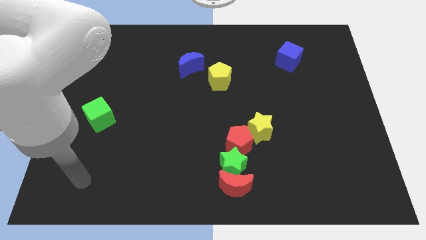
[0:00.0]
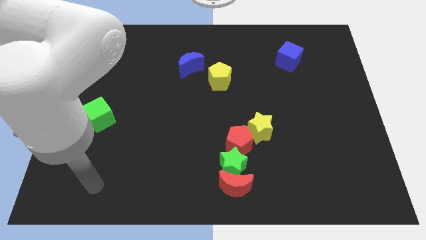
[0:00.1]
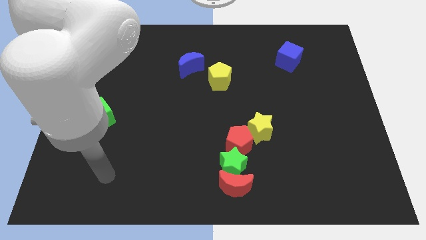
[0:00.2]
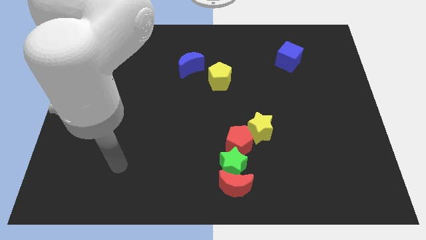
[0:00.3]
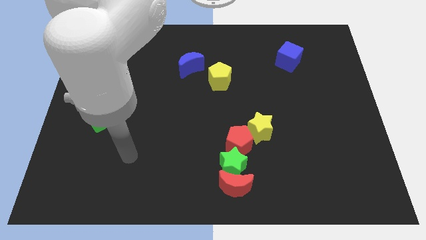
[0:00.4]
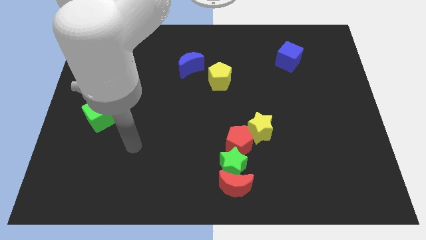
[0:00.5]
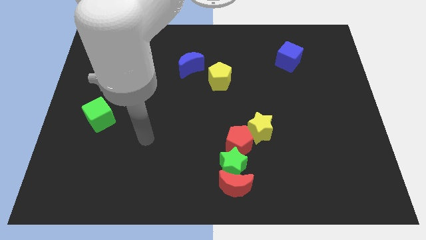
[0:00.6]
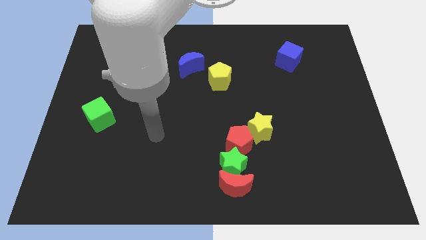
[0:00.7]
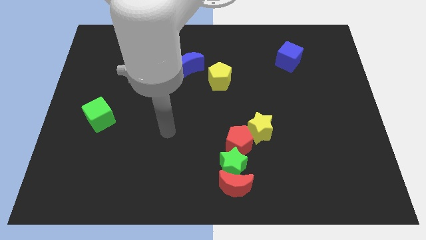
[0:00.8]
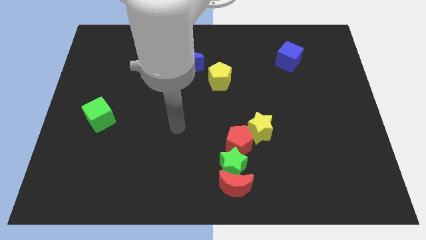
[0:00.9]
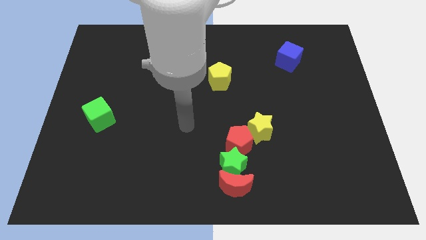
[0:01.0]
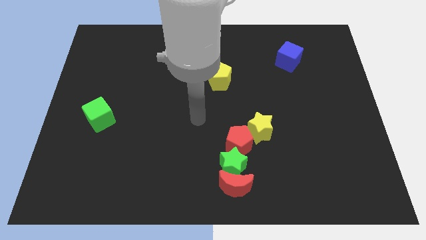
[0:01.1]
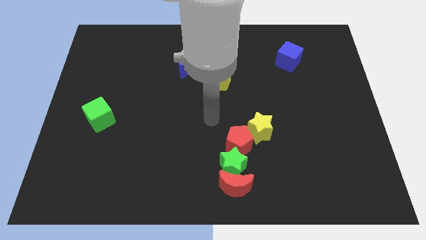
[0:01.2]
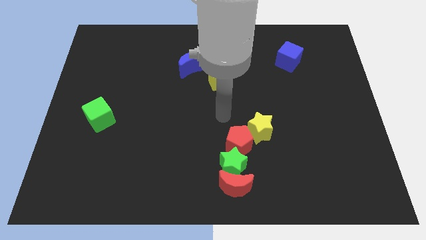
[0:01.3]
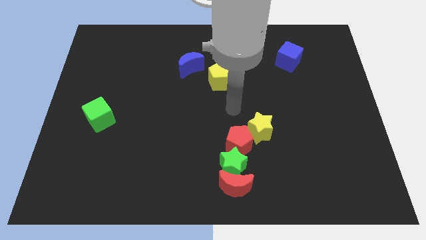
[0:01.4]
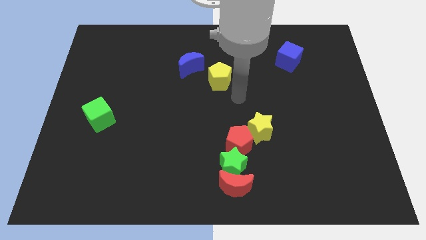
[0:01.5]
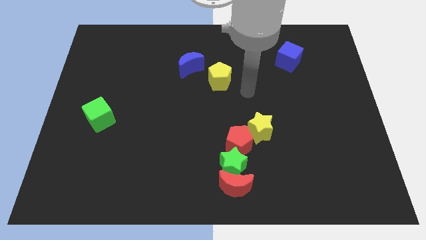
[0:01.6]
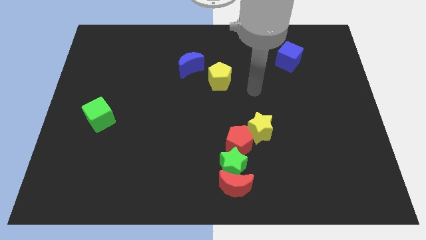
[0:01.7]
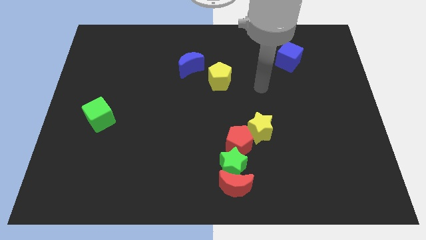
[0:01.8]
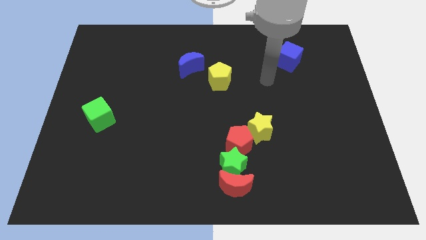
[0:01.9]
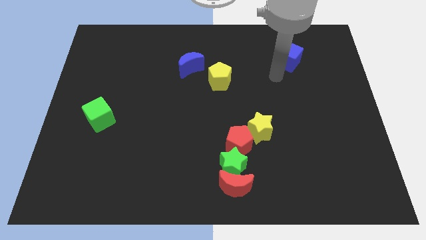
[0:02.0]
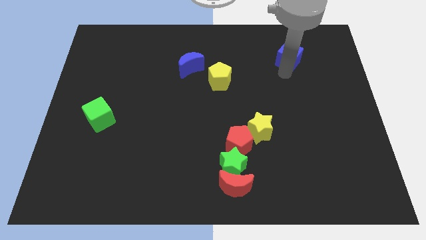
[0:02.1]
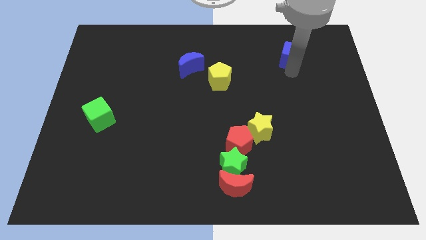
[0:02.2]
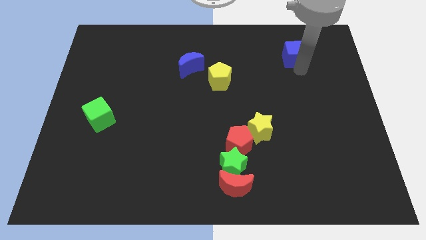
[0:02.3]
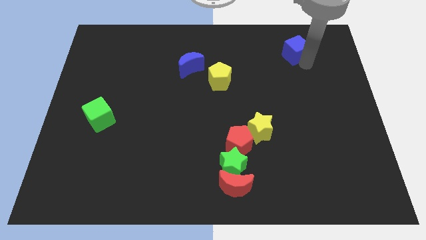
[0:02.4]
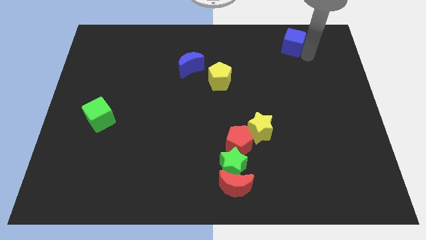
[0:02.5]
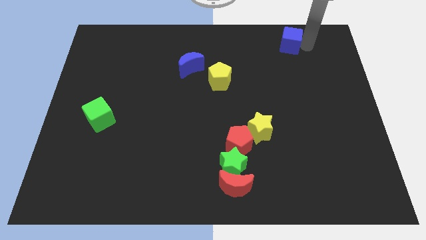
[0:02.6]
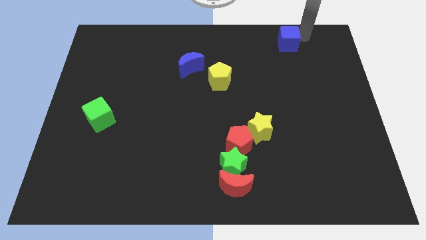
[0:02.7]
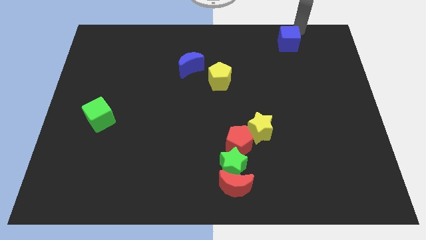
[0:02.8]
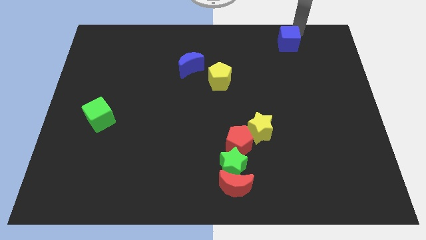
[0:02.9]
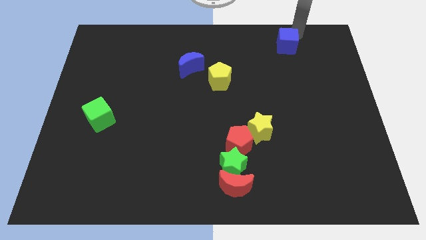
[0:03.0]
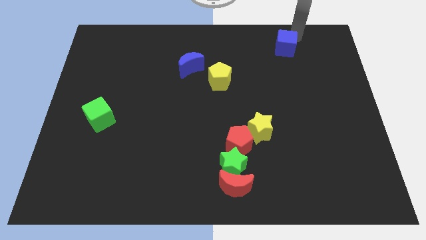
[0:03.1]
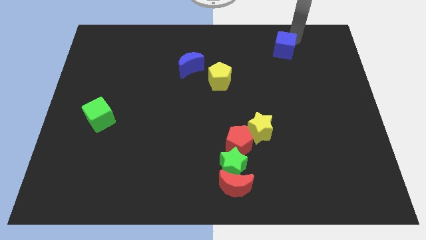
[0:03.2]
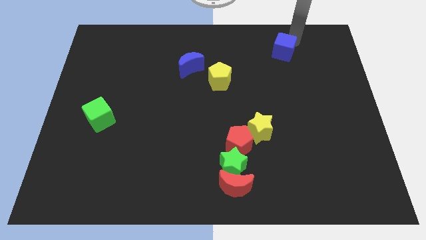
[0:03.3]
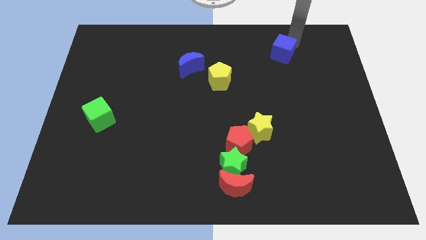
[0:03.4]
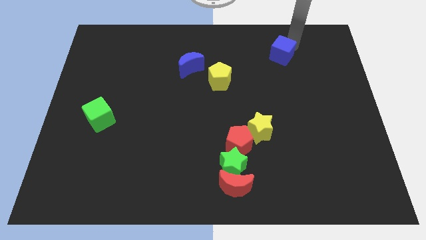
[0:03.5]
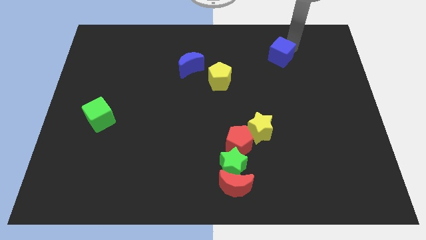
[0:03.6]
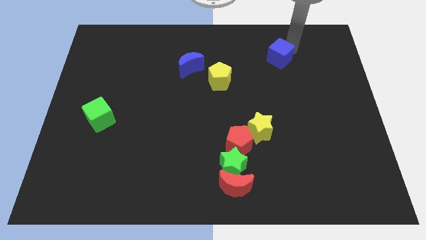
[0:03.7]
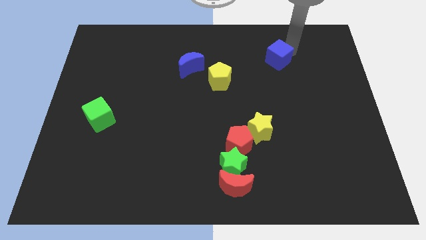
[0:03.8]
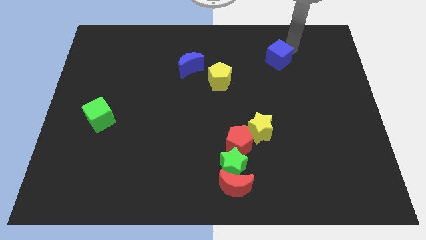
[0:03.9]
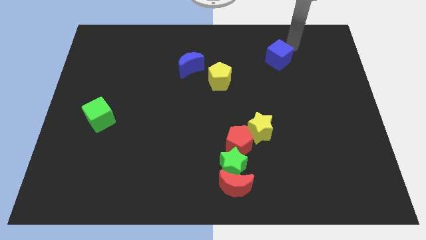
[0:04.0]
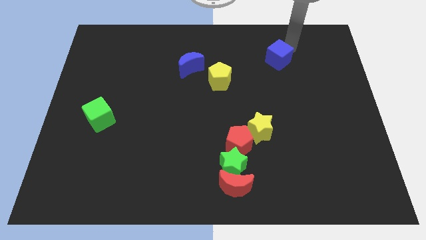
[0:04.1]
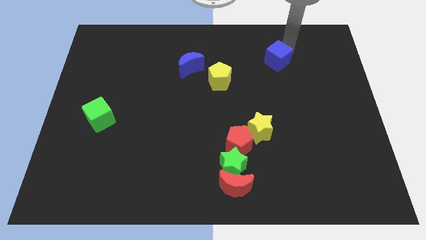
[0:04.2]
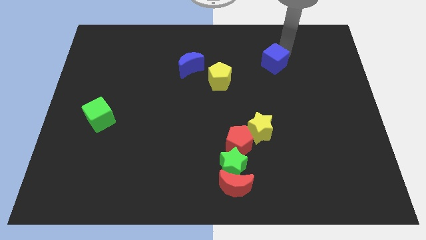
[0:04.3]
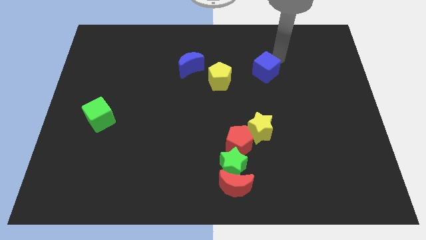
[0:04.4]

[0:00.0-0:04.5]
slide the blue cube down and left diagonally a little

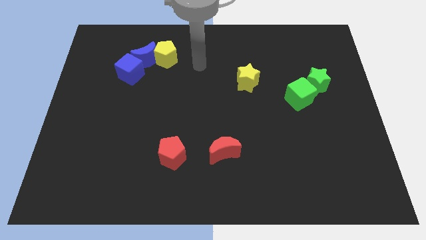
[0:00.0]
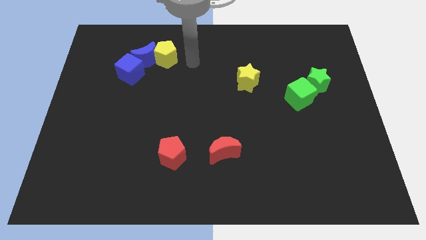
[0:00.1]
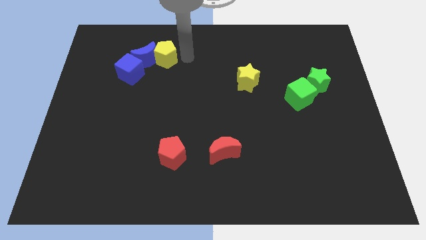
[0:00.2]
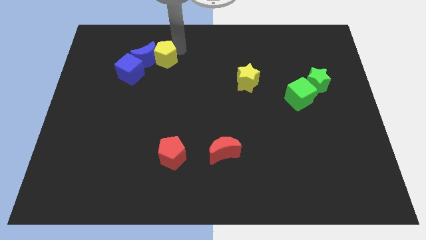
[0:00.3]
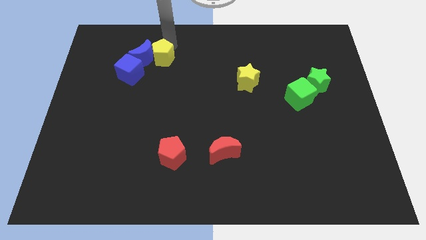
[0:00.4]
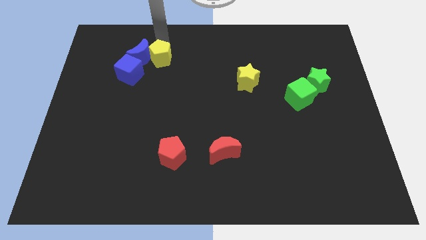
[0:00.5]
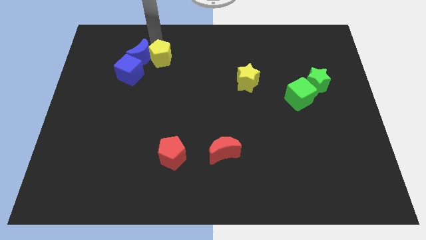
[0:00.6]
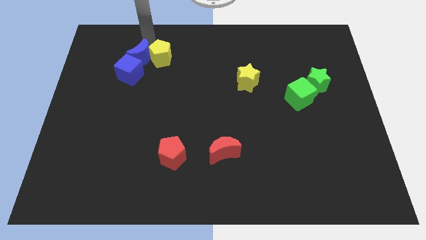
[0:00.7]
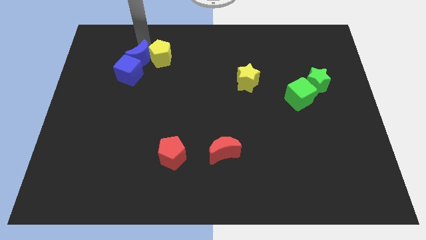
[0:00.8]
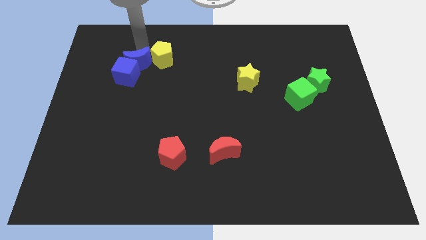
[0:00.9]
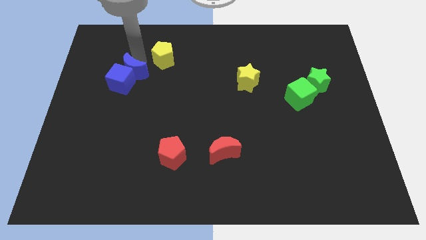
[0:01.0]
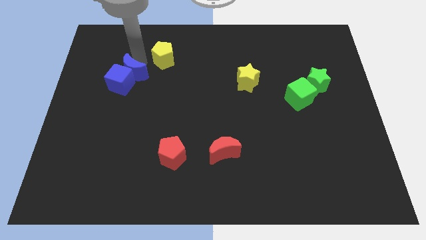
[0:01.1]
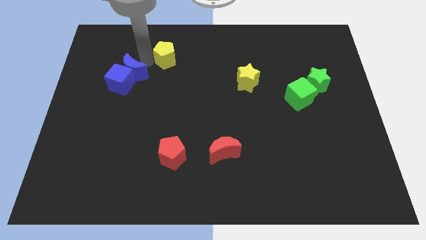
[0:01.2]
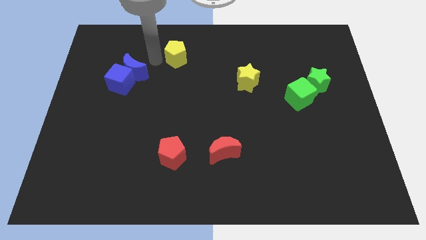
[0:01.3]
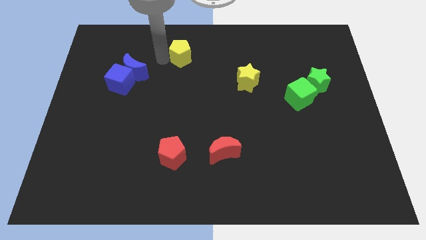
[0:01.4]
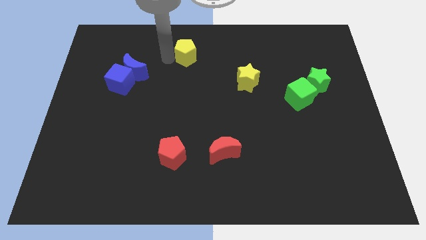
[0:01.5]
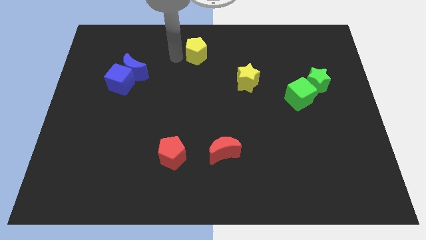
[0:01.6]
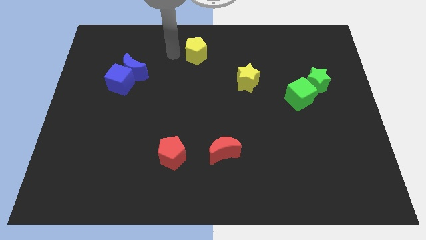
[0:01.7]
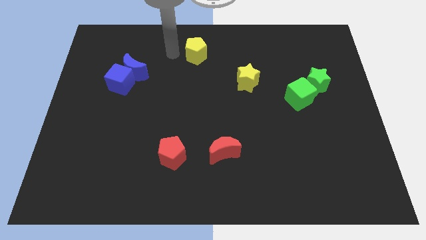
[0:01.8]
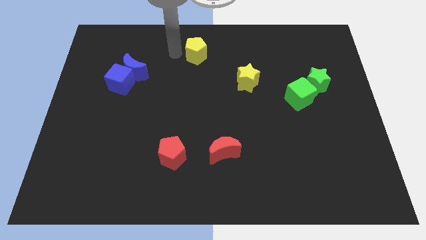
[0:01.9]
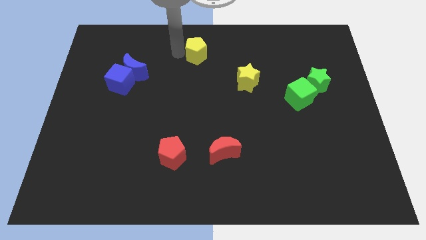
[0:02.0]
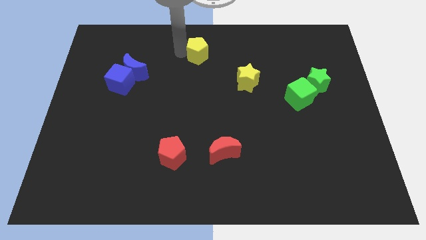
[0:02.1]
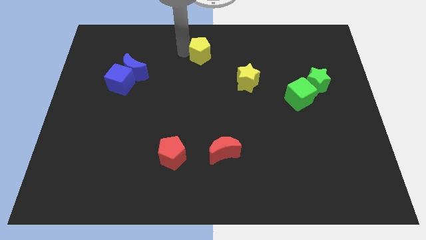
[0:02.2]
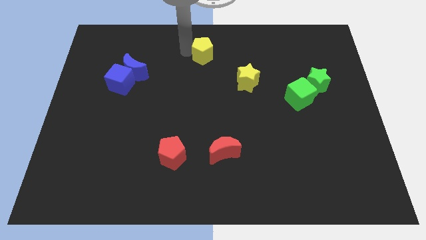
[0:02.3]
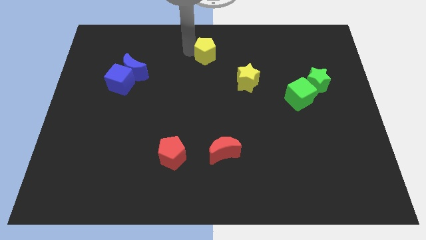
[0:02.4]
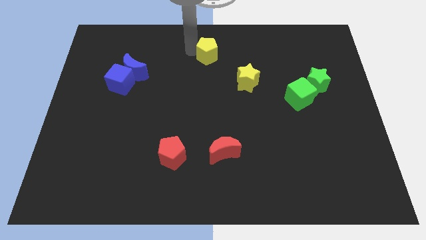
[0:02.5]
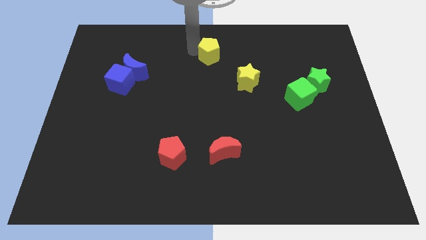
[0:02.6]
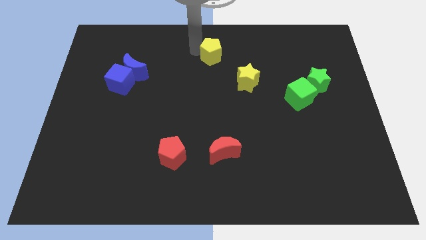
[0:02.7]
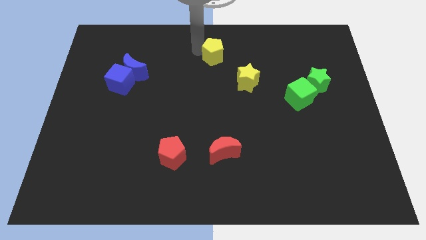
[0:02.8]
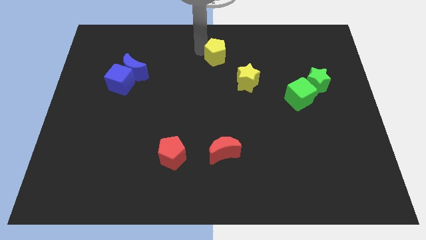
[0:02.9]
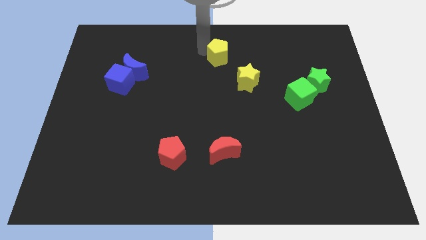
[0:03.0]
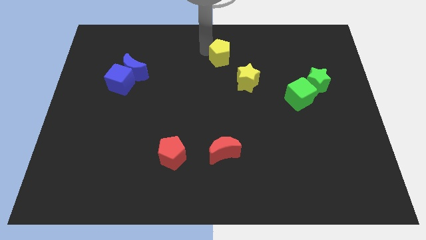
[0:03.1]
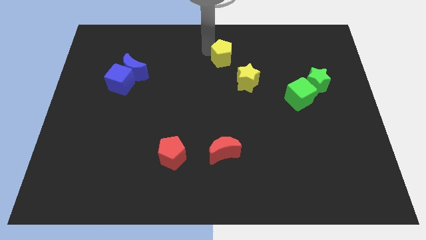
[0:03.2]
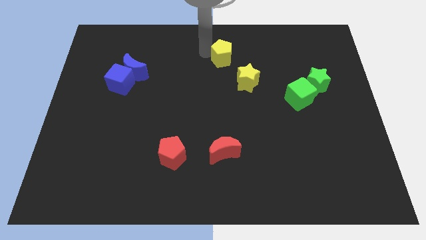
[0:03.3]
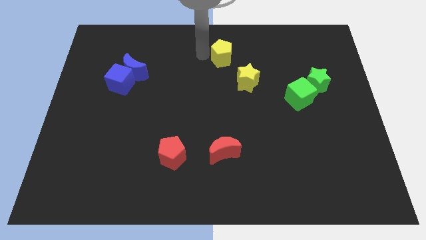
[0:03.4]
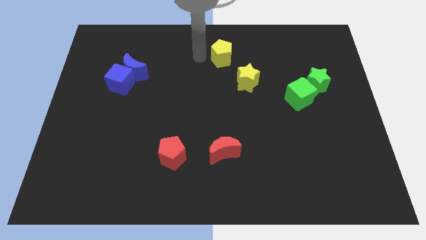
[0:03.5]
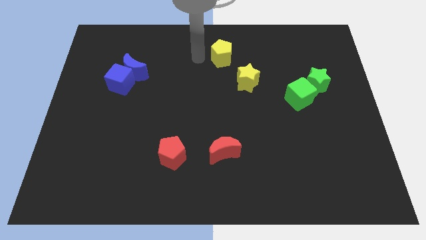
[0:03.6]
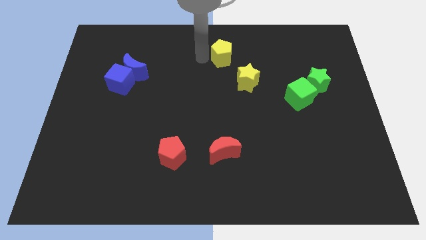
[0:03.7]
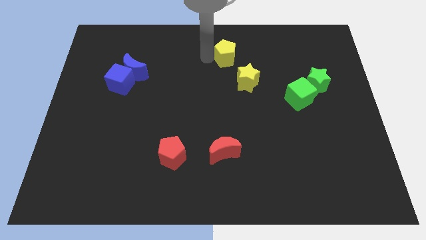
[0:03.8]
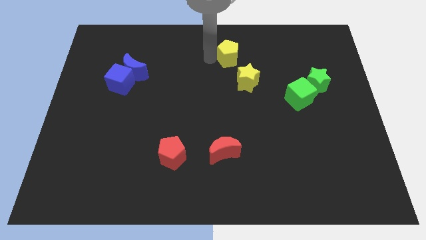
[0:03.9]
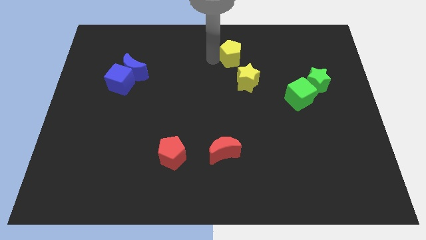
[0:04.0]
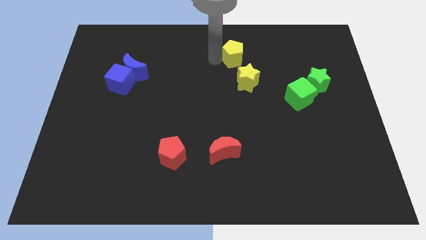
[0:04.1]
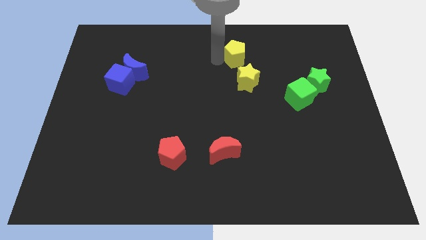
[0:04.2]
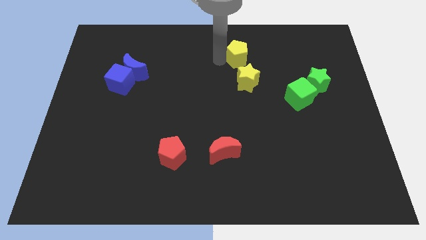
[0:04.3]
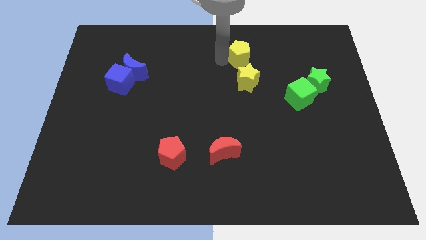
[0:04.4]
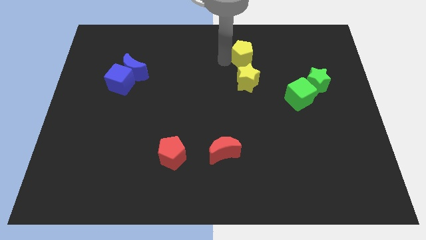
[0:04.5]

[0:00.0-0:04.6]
slide the yellow pentagon to the right
